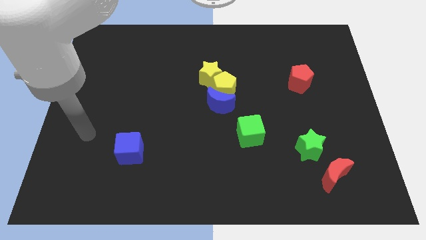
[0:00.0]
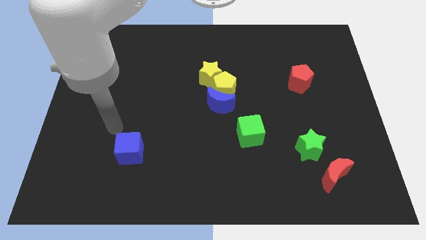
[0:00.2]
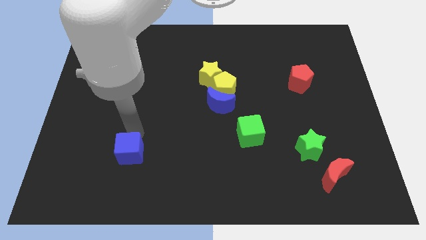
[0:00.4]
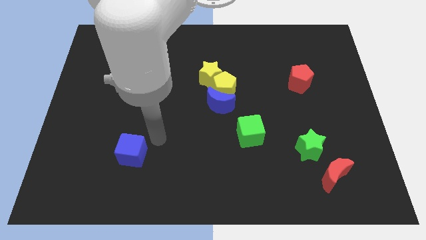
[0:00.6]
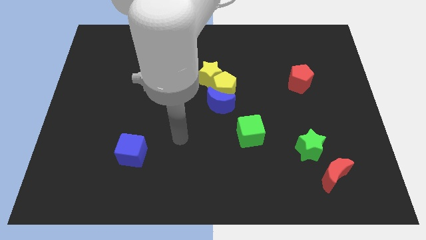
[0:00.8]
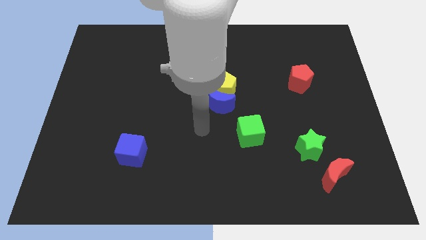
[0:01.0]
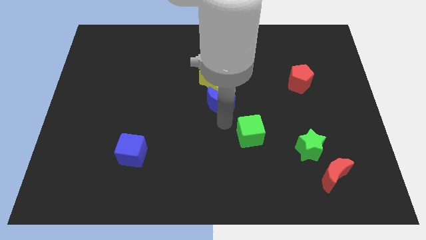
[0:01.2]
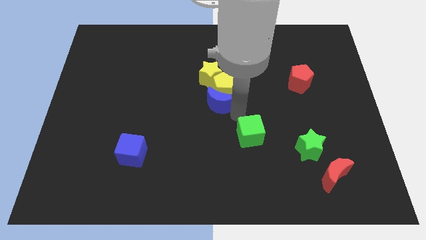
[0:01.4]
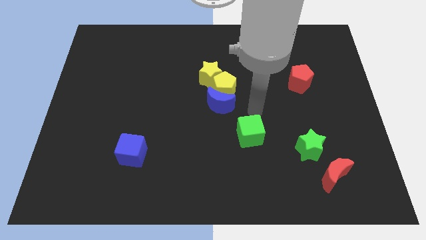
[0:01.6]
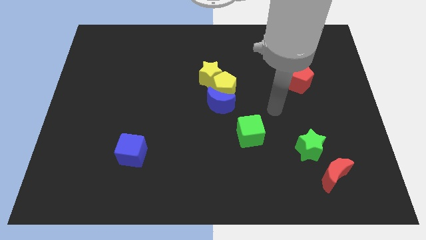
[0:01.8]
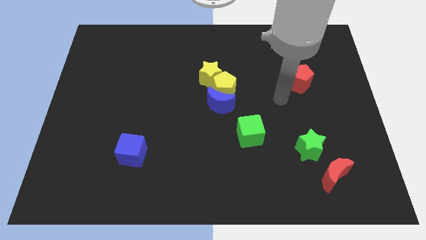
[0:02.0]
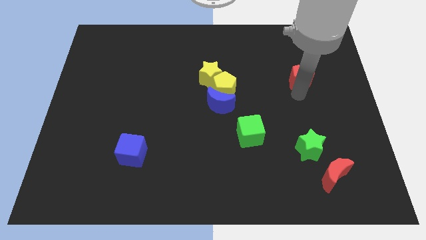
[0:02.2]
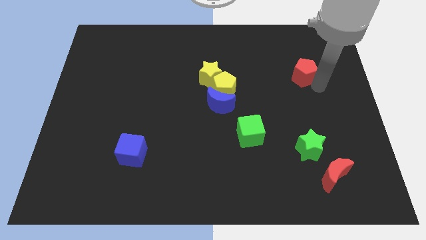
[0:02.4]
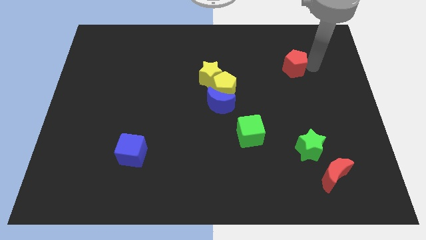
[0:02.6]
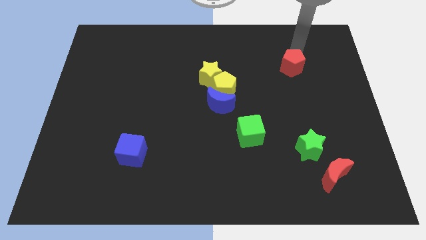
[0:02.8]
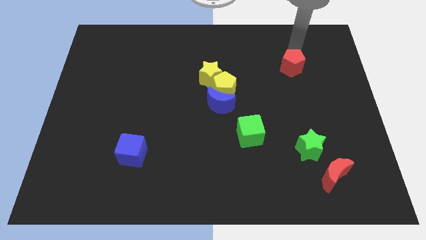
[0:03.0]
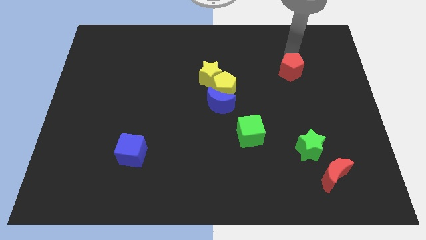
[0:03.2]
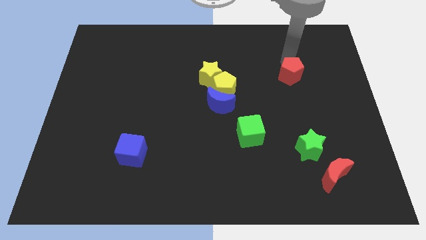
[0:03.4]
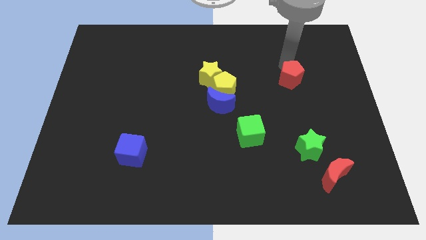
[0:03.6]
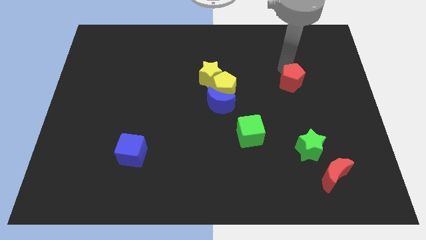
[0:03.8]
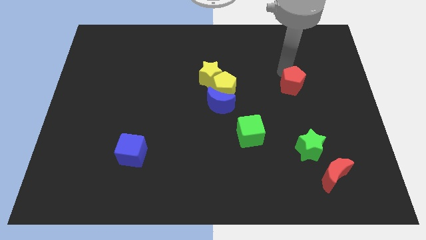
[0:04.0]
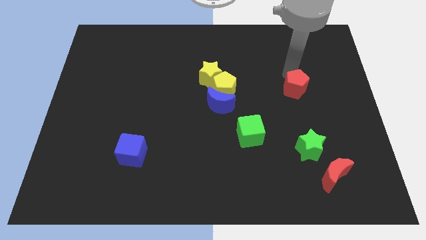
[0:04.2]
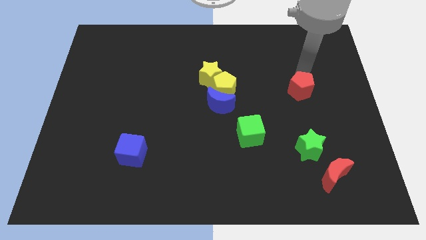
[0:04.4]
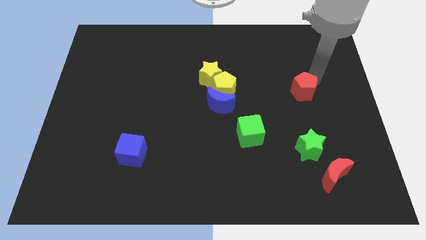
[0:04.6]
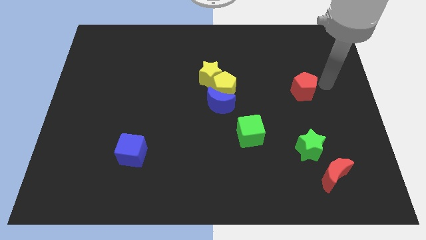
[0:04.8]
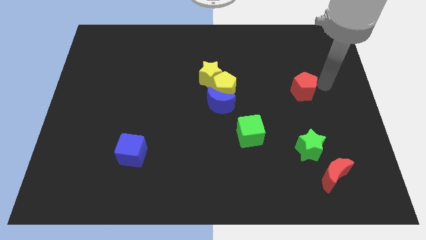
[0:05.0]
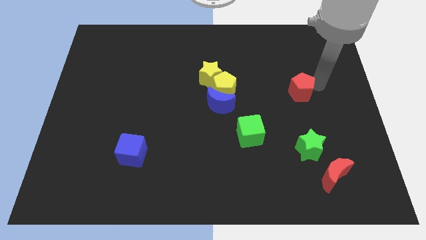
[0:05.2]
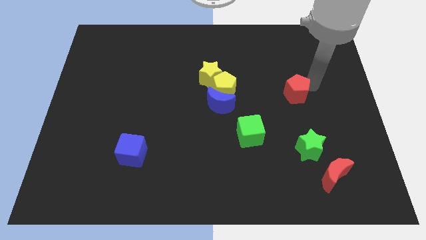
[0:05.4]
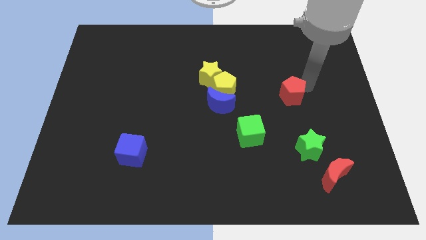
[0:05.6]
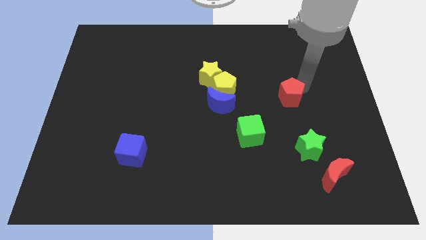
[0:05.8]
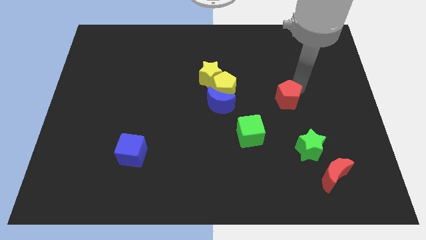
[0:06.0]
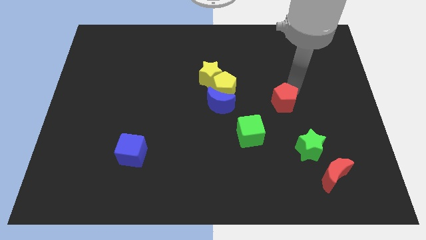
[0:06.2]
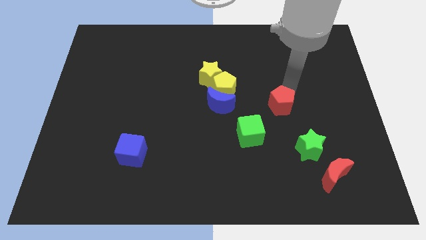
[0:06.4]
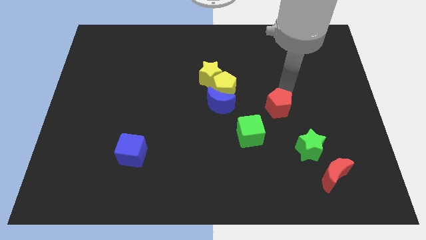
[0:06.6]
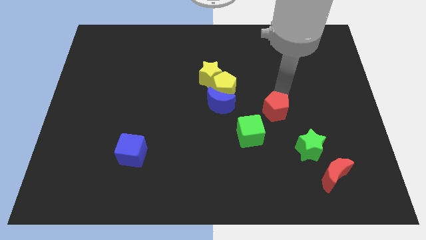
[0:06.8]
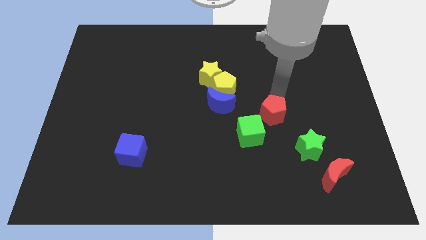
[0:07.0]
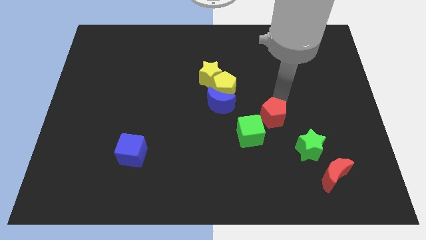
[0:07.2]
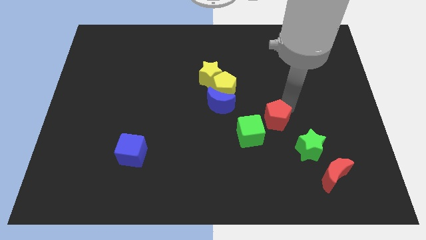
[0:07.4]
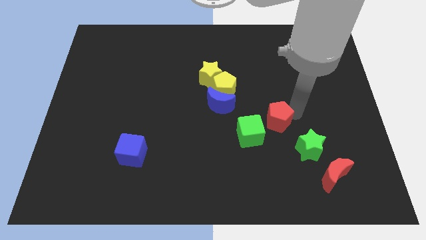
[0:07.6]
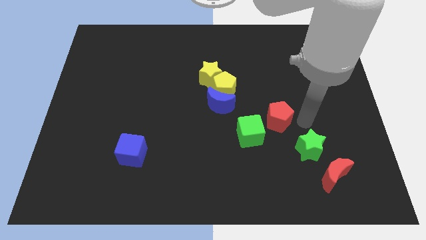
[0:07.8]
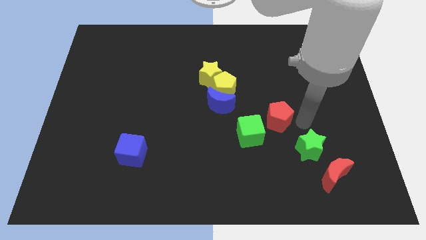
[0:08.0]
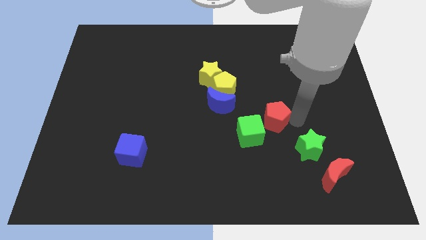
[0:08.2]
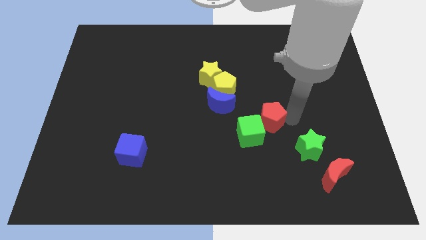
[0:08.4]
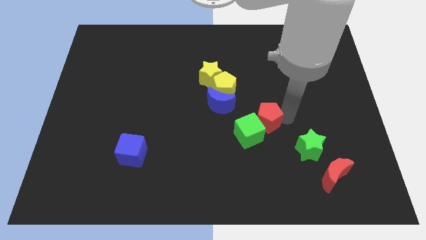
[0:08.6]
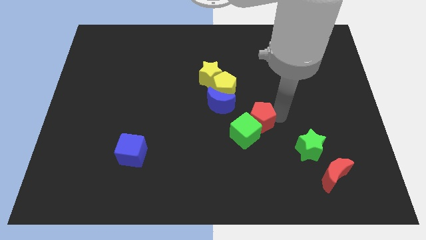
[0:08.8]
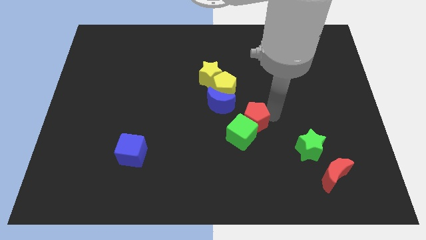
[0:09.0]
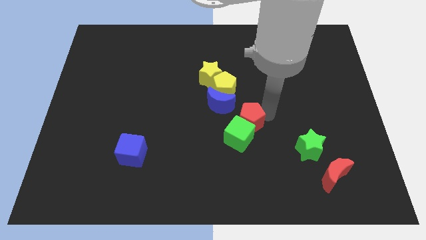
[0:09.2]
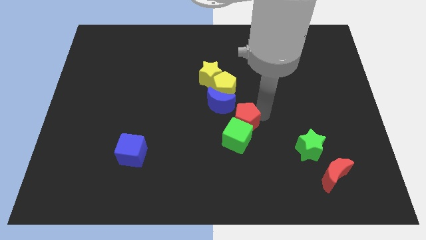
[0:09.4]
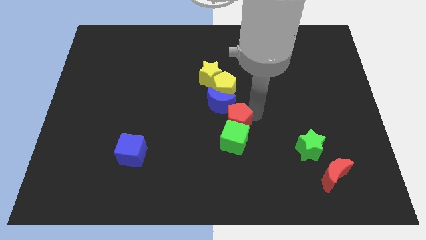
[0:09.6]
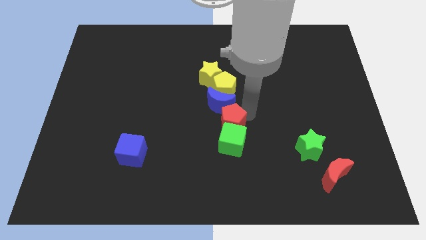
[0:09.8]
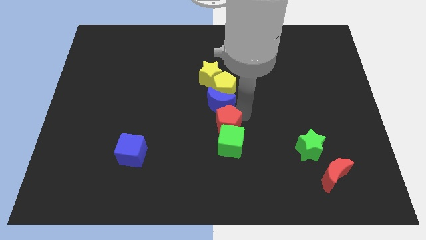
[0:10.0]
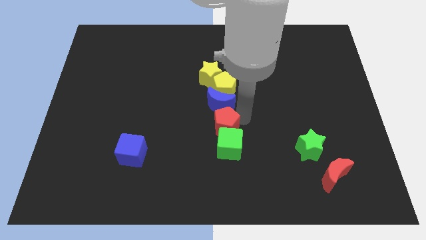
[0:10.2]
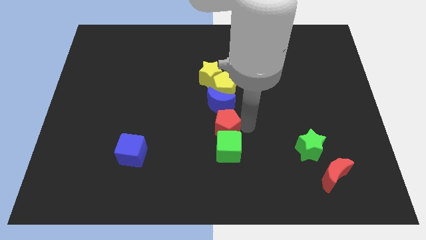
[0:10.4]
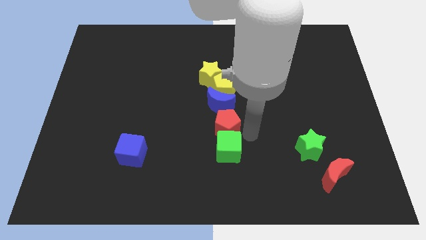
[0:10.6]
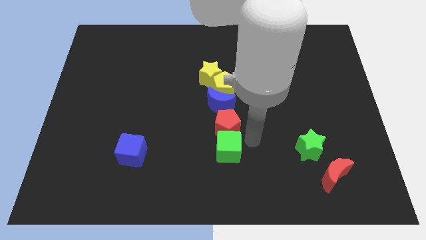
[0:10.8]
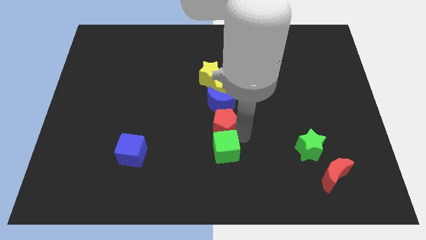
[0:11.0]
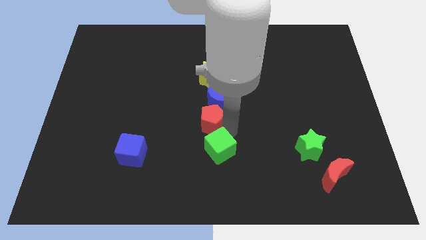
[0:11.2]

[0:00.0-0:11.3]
push the red pentagon to the bottom left of the yellow pentagon

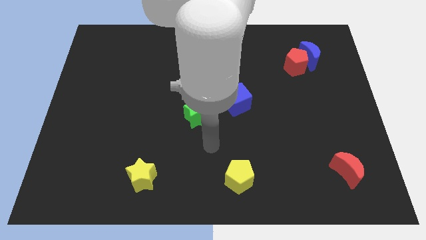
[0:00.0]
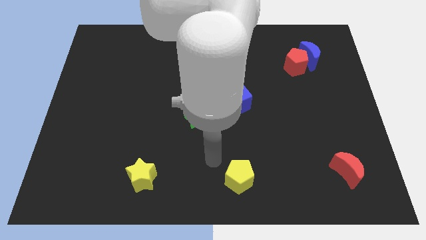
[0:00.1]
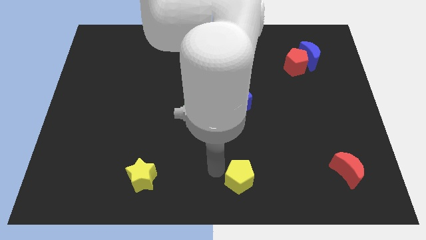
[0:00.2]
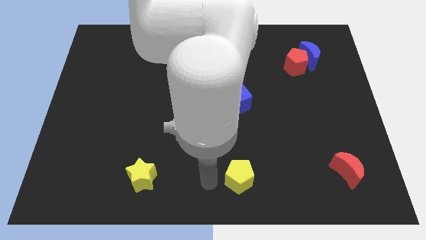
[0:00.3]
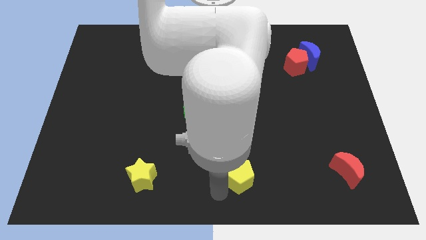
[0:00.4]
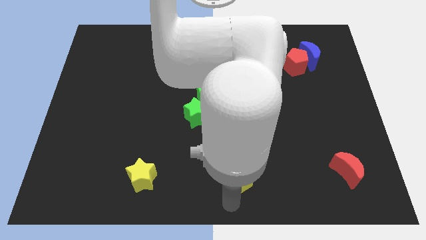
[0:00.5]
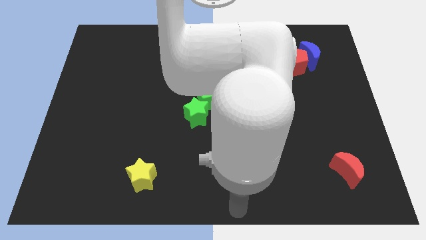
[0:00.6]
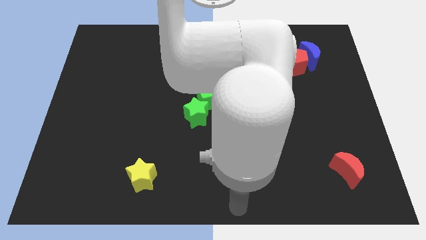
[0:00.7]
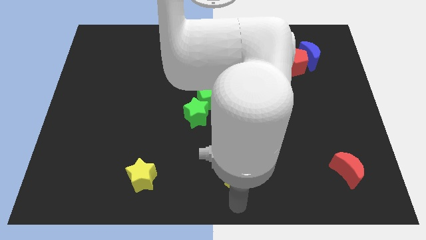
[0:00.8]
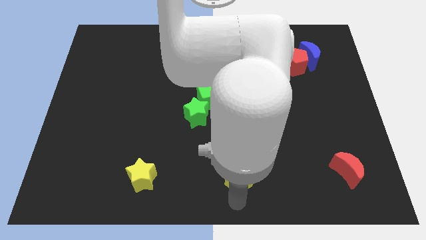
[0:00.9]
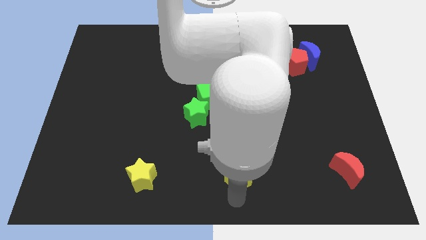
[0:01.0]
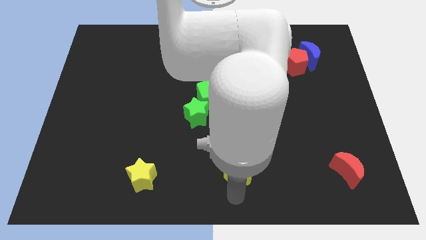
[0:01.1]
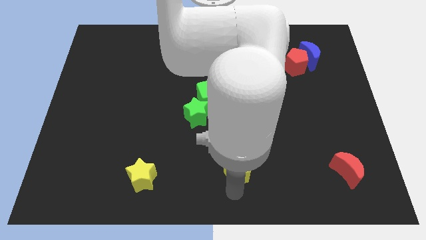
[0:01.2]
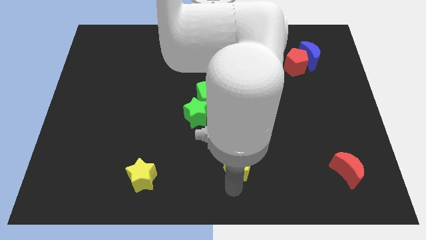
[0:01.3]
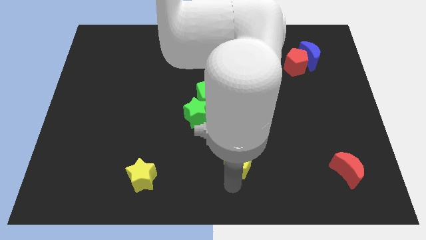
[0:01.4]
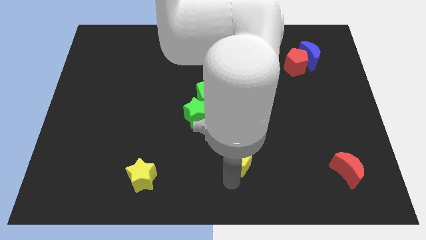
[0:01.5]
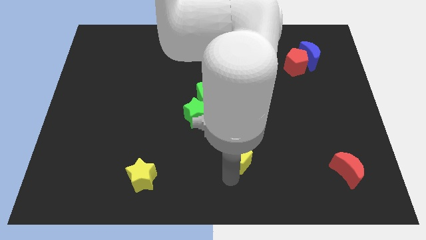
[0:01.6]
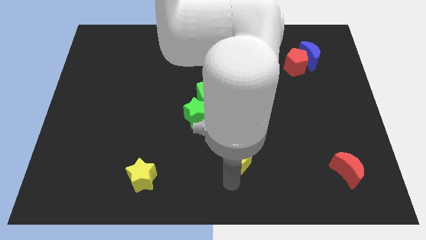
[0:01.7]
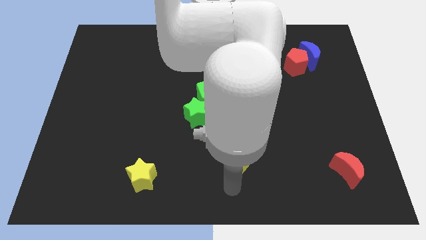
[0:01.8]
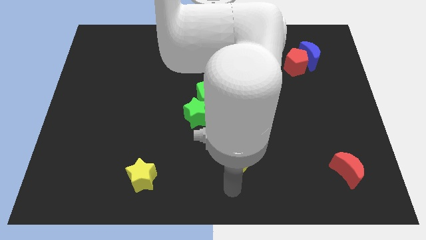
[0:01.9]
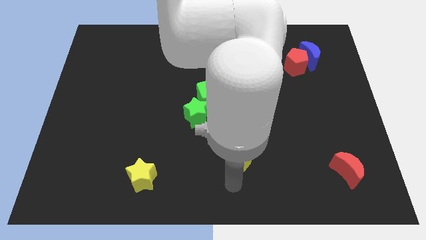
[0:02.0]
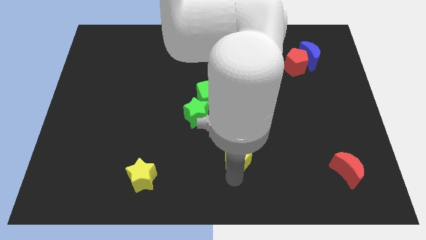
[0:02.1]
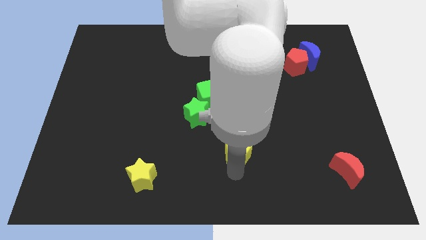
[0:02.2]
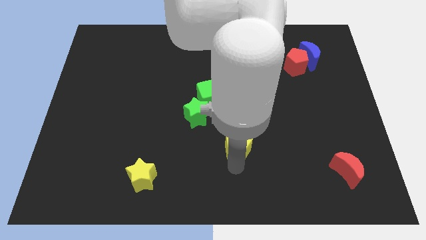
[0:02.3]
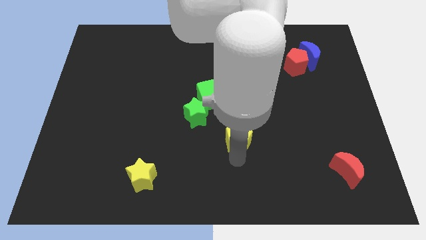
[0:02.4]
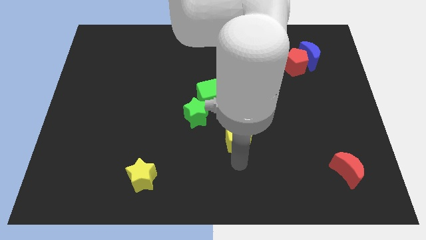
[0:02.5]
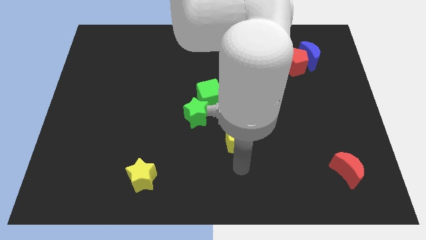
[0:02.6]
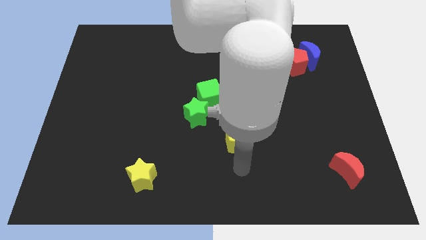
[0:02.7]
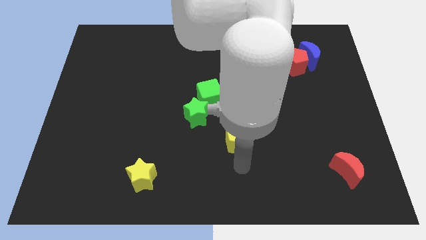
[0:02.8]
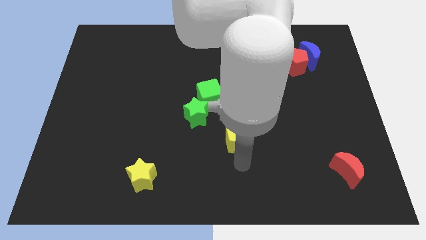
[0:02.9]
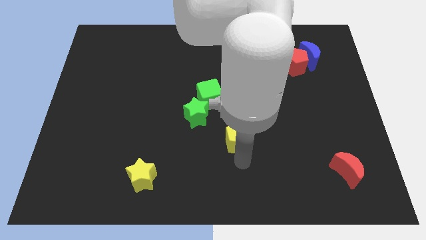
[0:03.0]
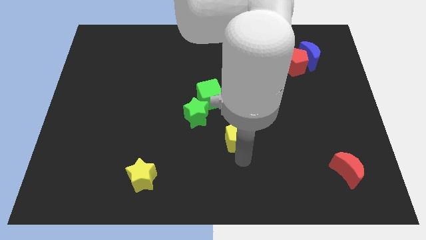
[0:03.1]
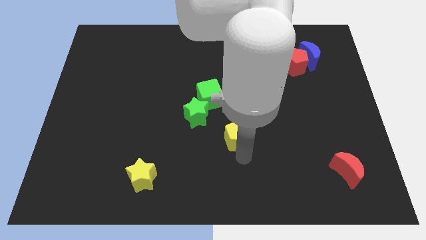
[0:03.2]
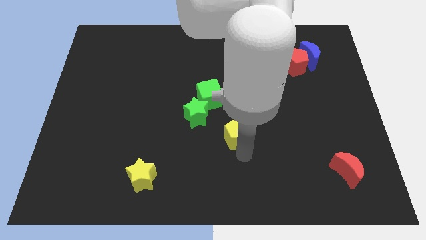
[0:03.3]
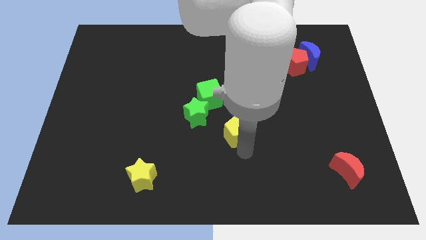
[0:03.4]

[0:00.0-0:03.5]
slide the yellow pentagon to the bottom right side of the green cube
